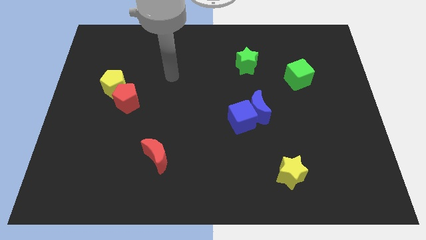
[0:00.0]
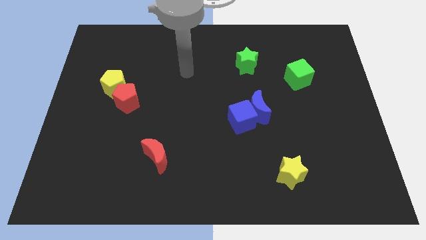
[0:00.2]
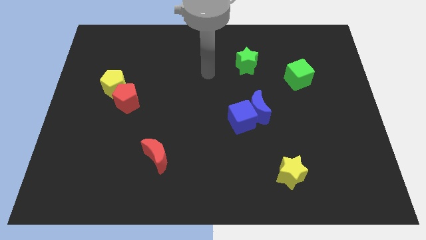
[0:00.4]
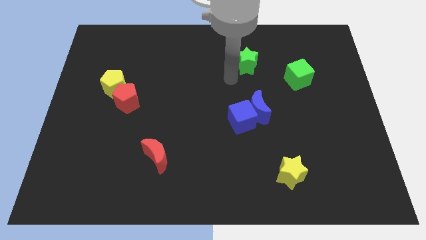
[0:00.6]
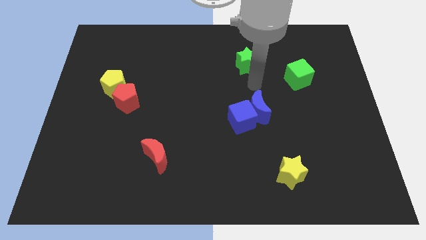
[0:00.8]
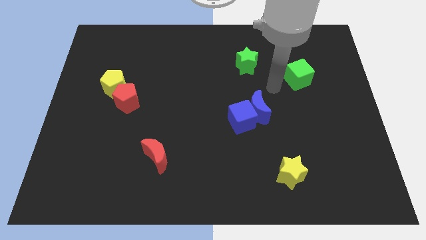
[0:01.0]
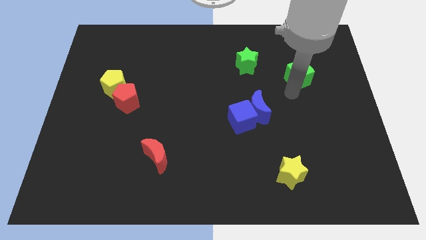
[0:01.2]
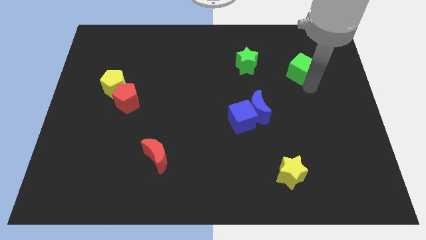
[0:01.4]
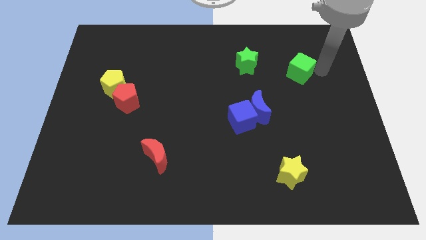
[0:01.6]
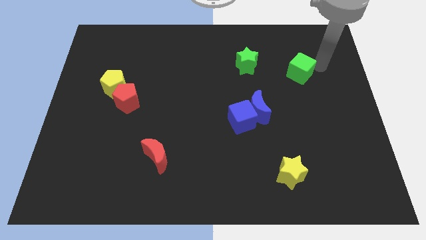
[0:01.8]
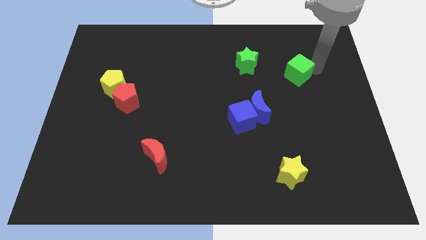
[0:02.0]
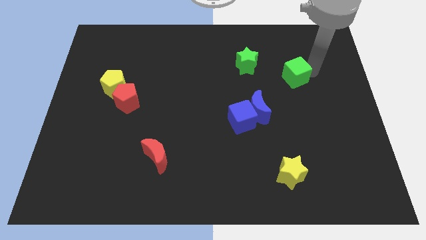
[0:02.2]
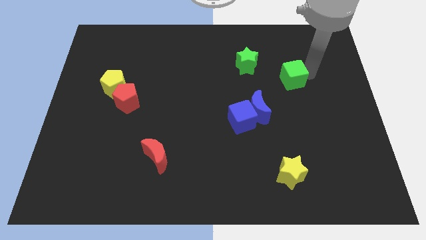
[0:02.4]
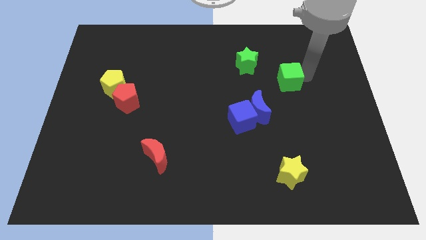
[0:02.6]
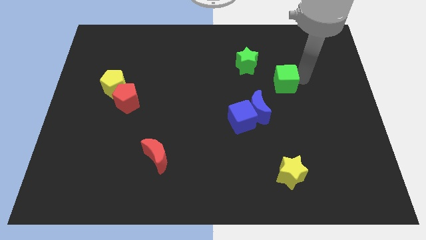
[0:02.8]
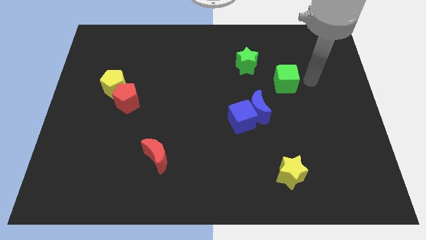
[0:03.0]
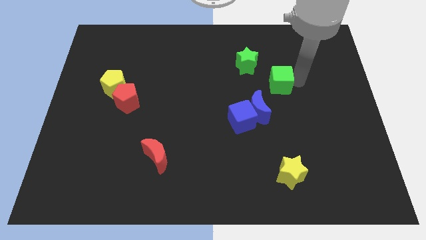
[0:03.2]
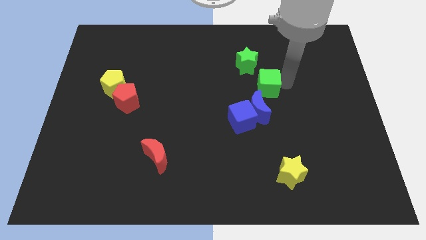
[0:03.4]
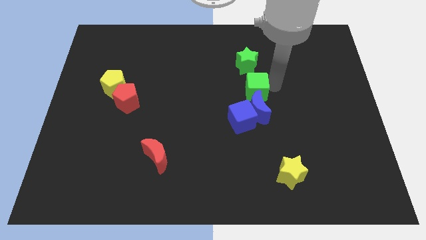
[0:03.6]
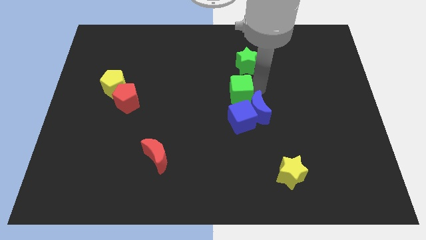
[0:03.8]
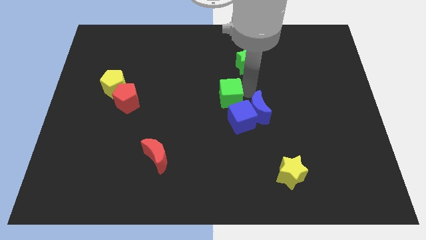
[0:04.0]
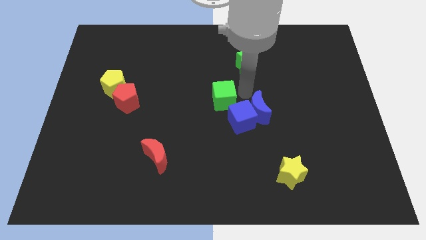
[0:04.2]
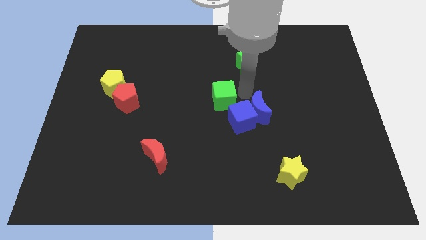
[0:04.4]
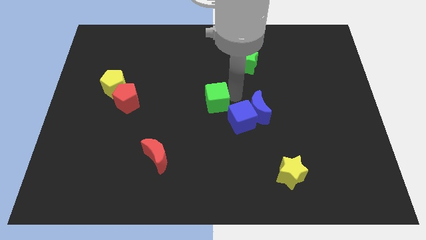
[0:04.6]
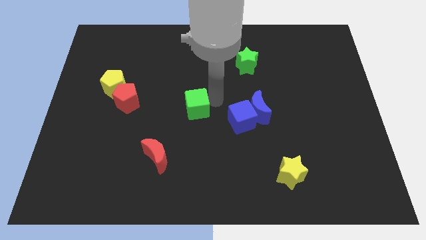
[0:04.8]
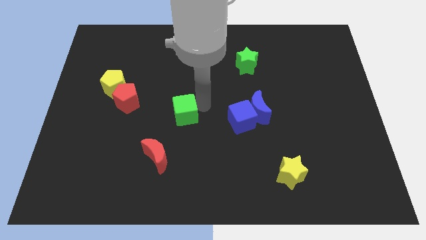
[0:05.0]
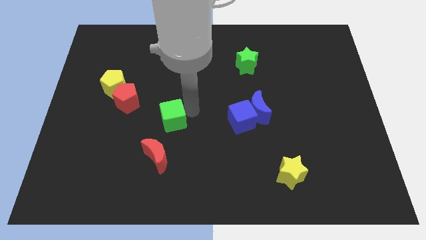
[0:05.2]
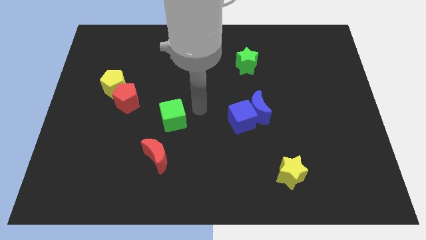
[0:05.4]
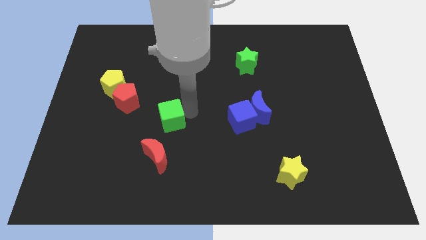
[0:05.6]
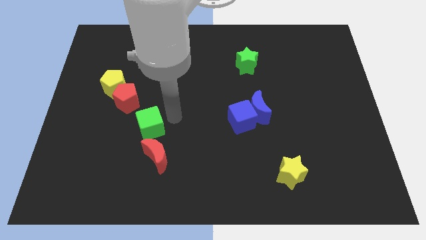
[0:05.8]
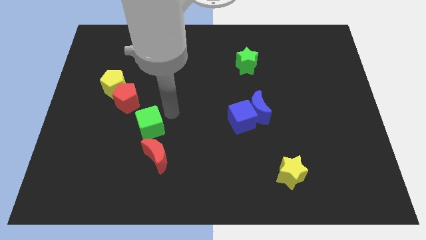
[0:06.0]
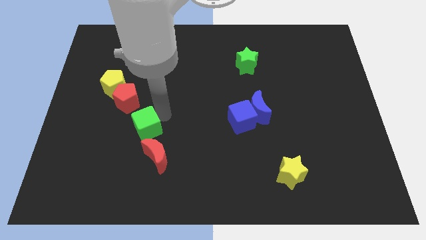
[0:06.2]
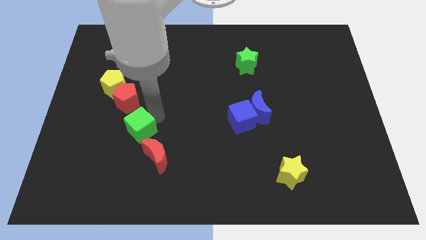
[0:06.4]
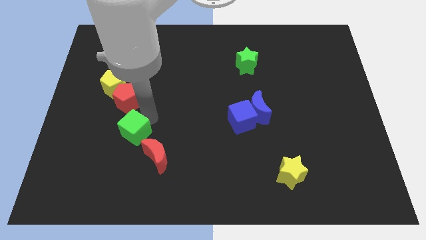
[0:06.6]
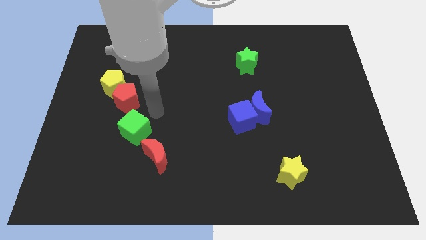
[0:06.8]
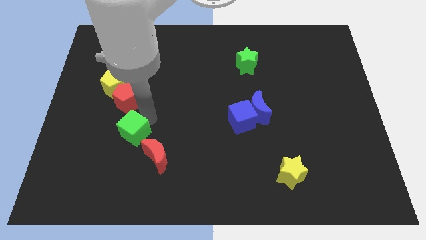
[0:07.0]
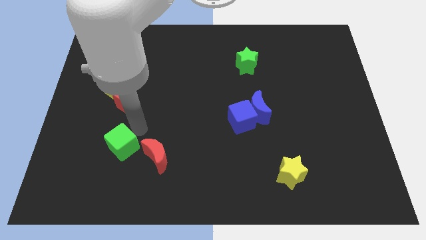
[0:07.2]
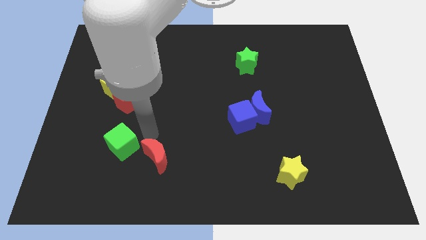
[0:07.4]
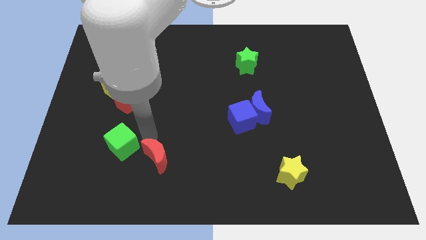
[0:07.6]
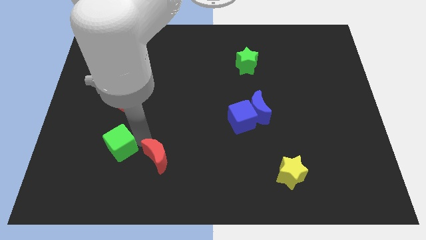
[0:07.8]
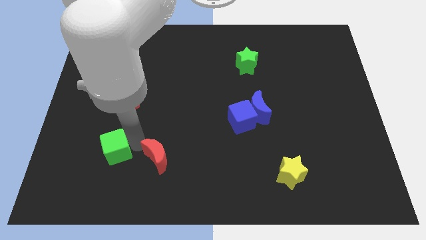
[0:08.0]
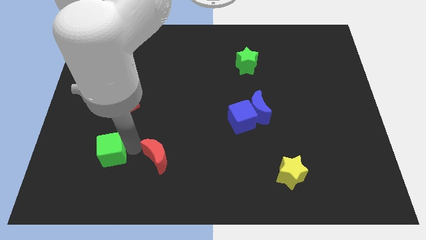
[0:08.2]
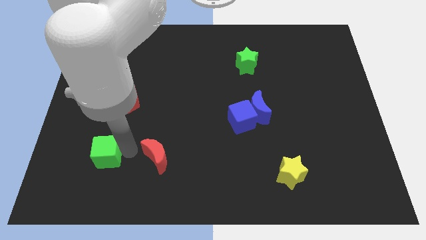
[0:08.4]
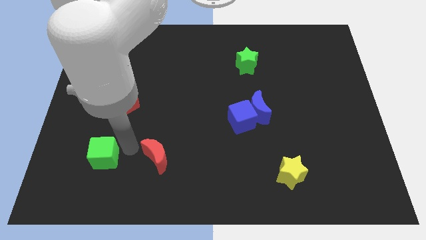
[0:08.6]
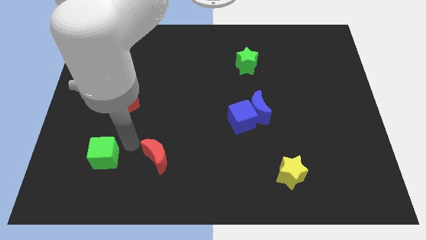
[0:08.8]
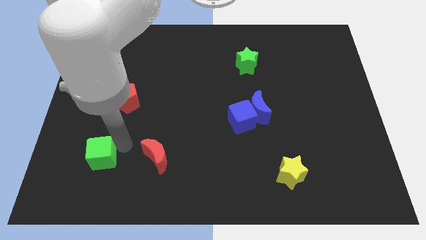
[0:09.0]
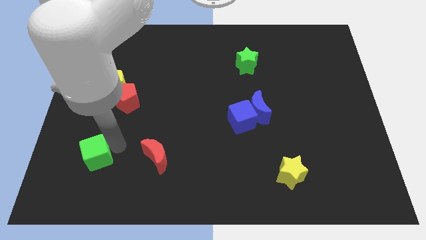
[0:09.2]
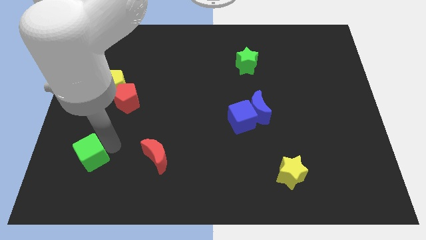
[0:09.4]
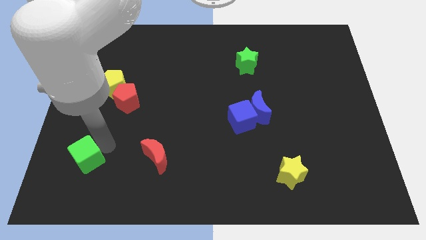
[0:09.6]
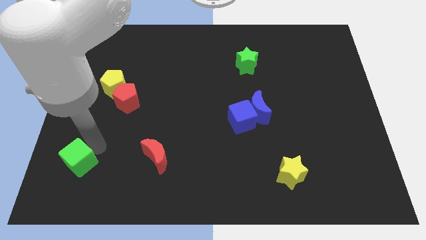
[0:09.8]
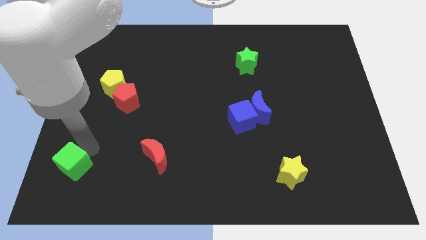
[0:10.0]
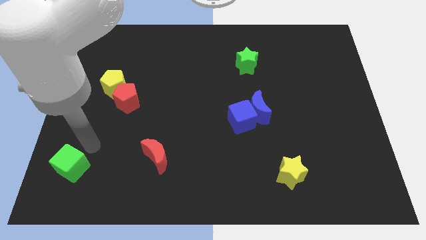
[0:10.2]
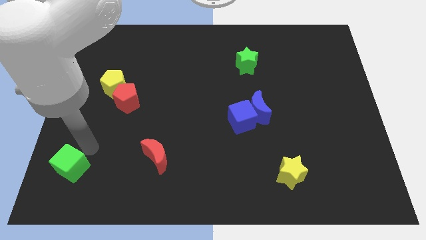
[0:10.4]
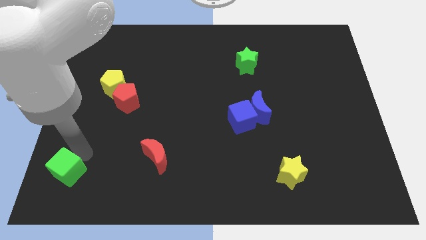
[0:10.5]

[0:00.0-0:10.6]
push the green cube to the bottom left corner

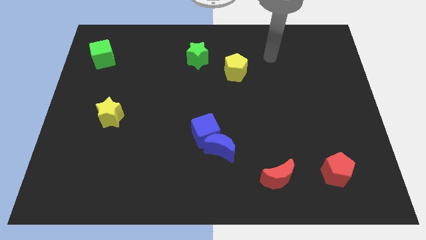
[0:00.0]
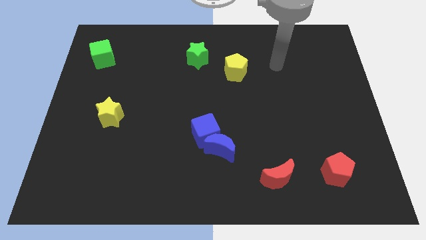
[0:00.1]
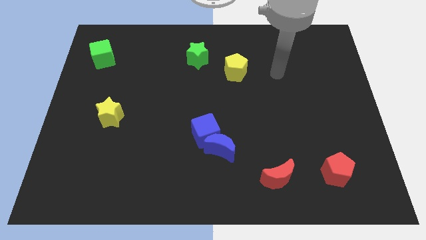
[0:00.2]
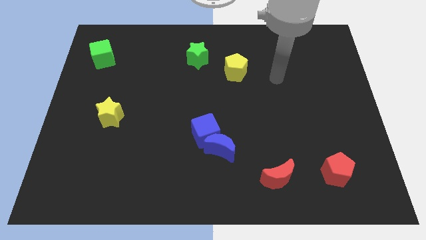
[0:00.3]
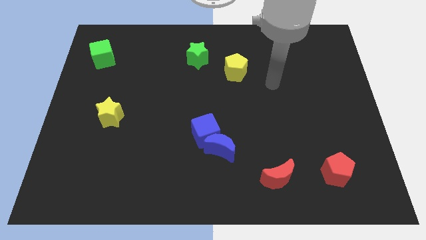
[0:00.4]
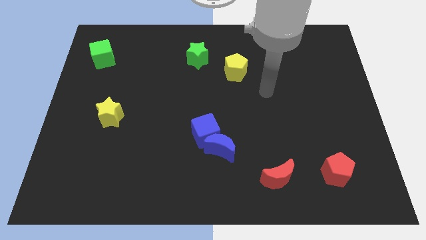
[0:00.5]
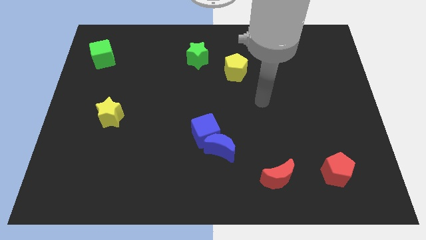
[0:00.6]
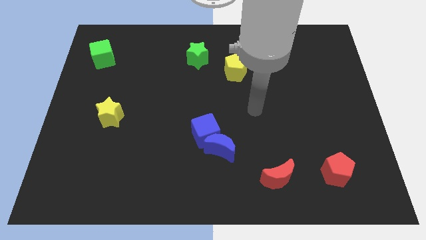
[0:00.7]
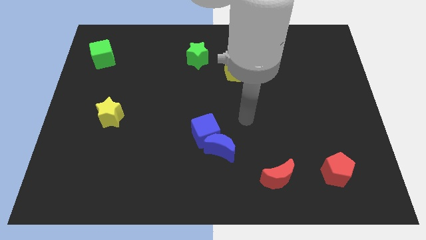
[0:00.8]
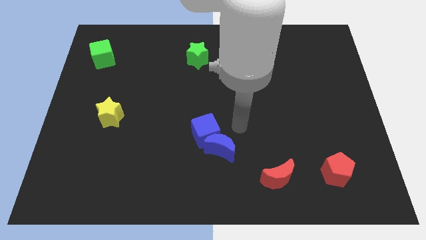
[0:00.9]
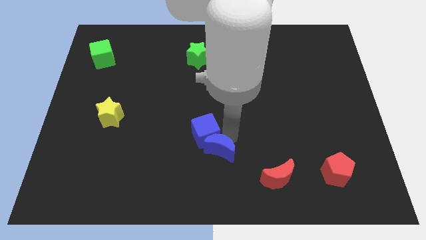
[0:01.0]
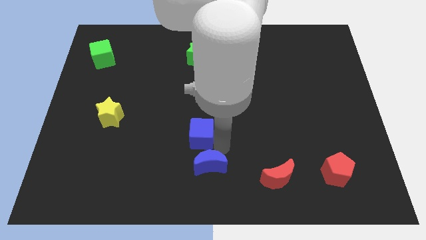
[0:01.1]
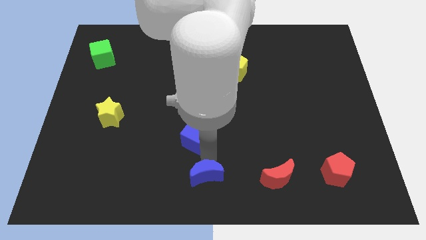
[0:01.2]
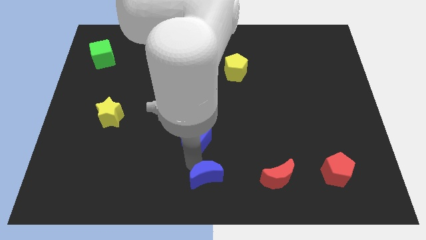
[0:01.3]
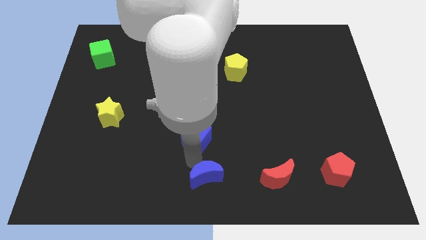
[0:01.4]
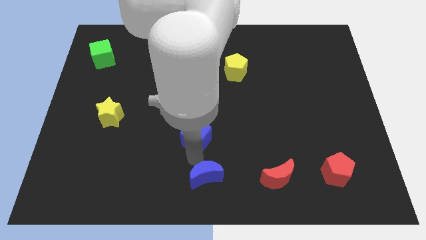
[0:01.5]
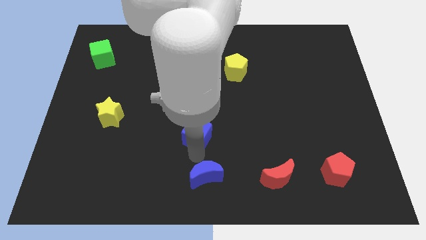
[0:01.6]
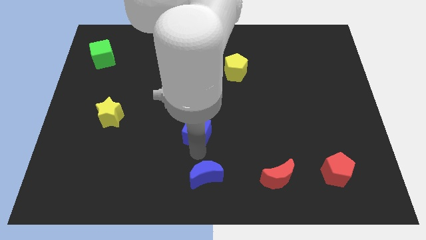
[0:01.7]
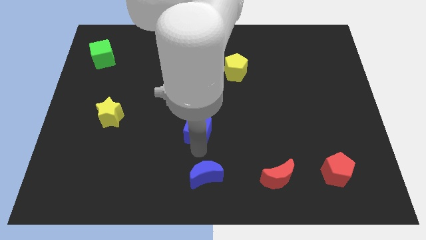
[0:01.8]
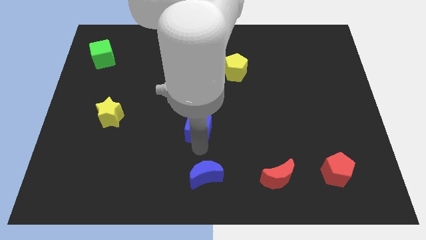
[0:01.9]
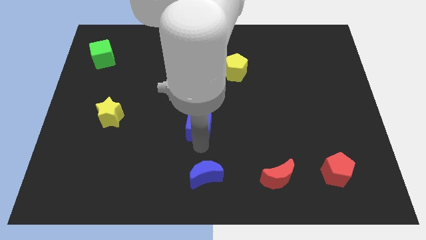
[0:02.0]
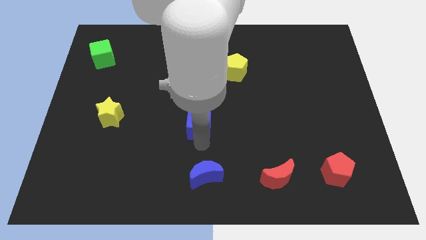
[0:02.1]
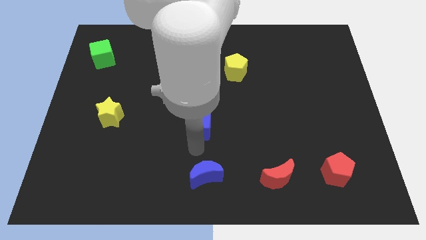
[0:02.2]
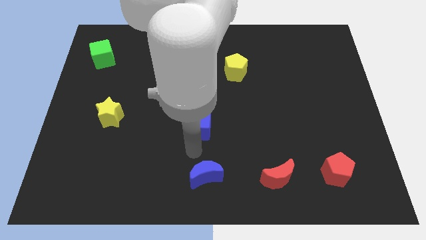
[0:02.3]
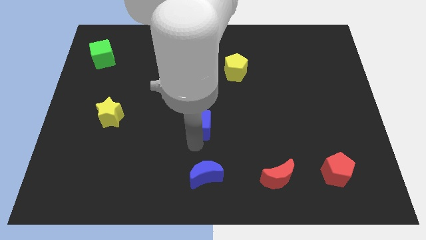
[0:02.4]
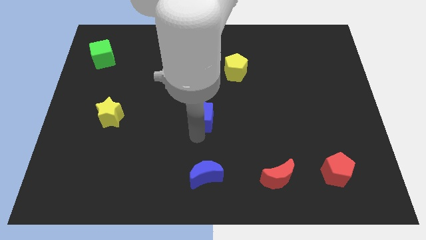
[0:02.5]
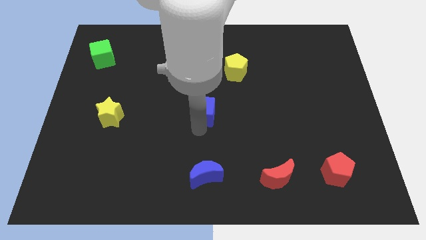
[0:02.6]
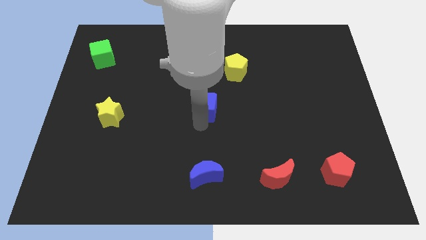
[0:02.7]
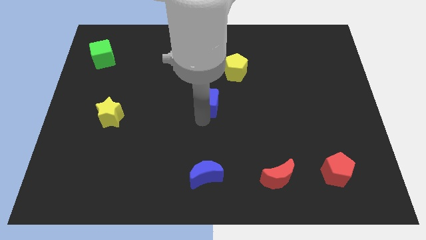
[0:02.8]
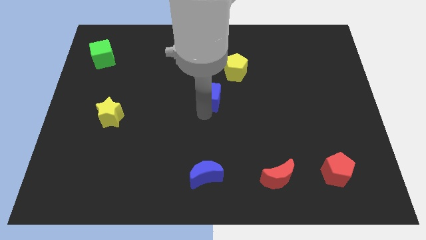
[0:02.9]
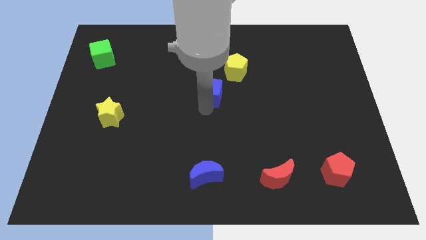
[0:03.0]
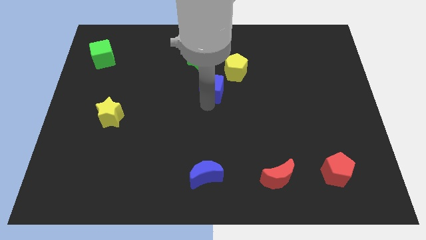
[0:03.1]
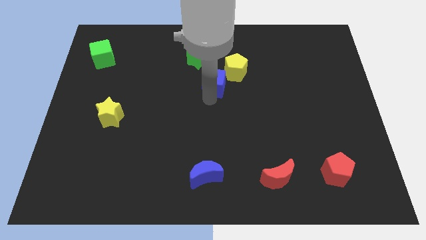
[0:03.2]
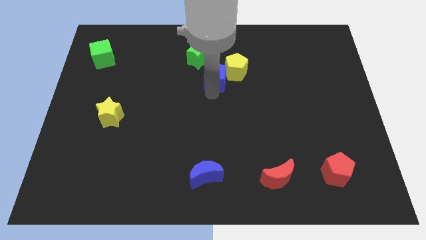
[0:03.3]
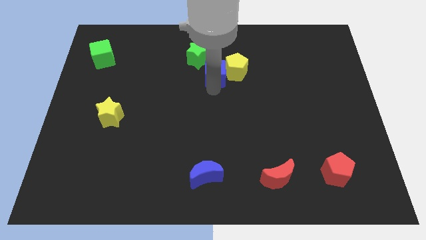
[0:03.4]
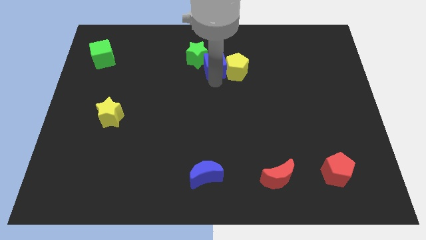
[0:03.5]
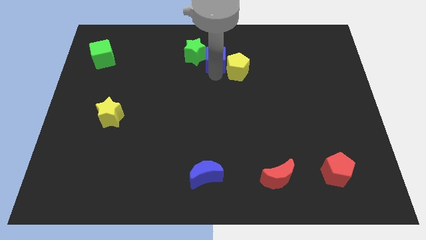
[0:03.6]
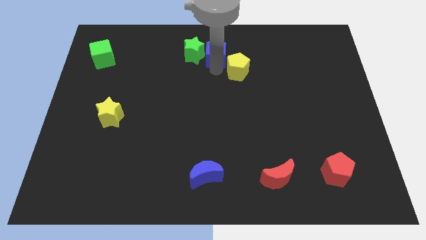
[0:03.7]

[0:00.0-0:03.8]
put the blue cube to the top side
